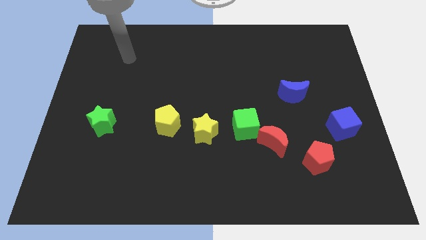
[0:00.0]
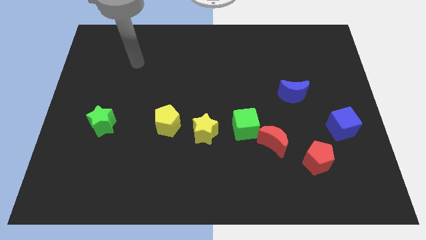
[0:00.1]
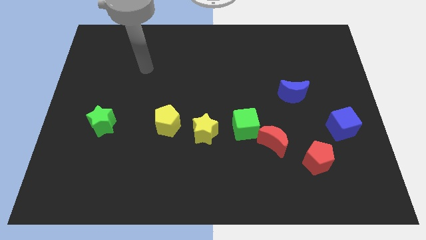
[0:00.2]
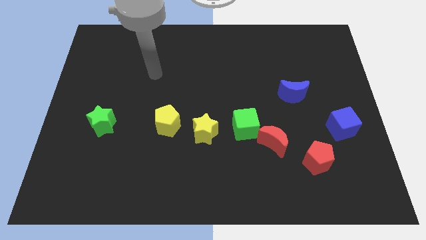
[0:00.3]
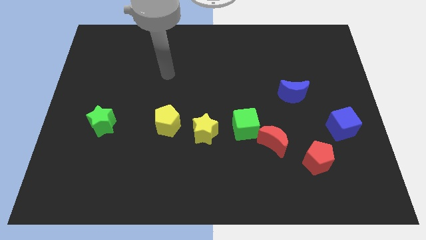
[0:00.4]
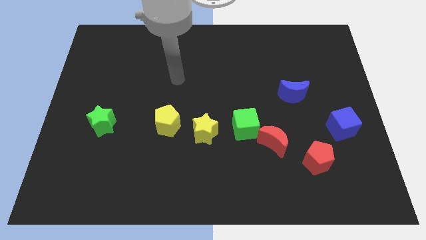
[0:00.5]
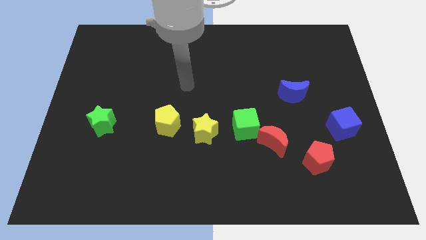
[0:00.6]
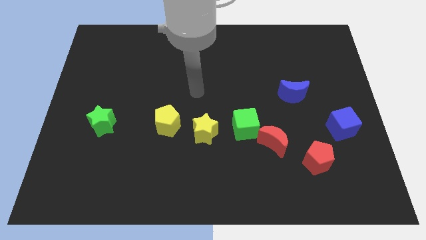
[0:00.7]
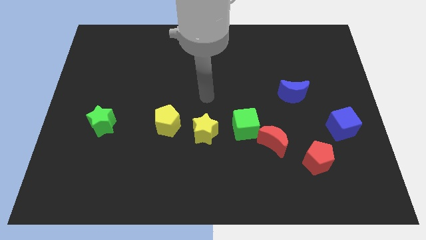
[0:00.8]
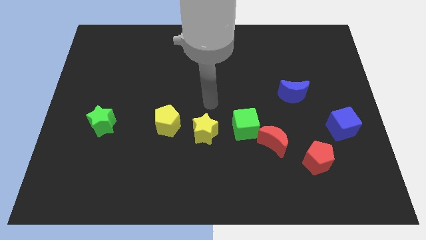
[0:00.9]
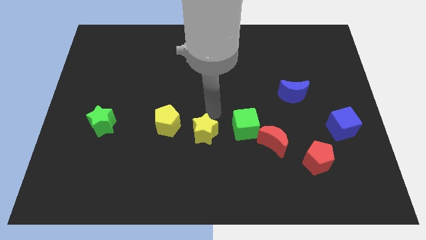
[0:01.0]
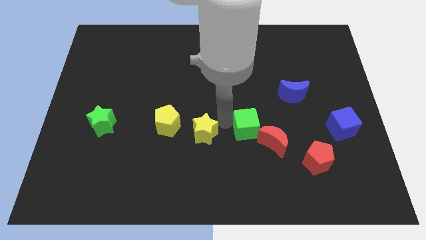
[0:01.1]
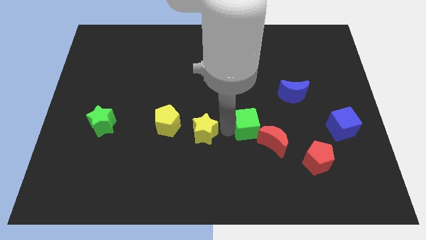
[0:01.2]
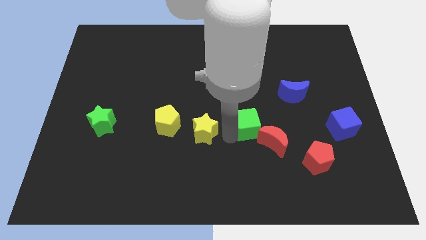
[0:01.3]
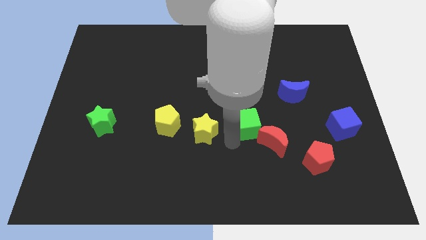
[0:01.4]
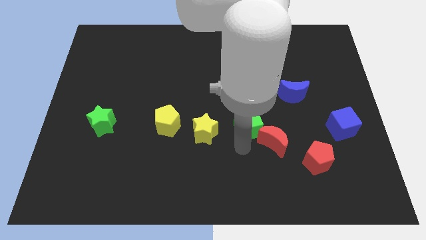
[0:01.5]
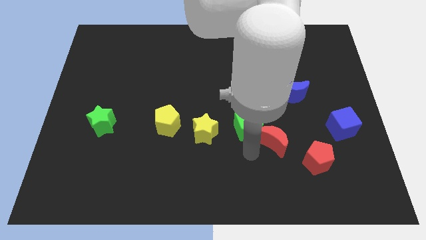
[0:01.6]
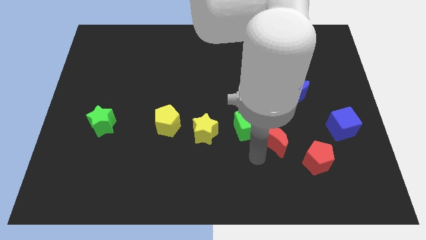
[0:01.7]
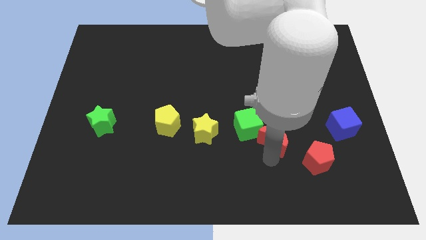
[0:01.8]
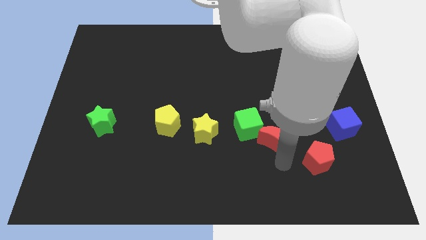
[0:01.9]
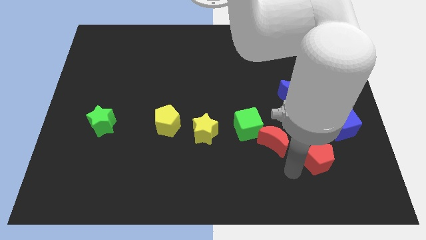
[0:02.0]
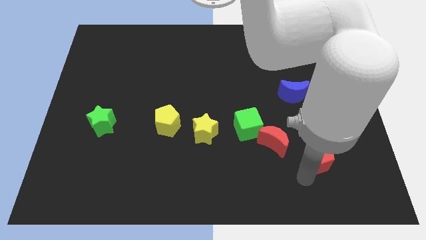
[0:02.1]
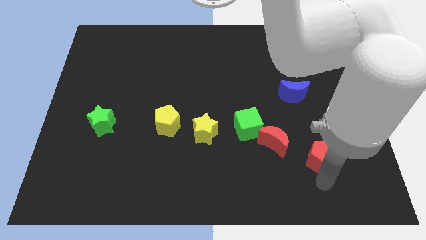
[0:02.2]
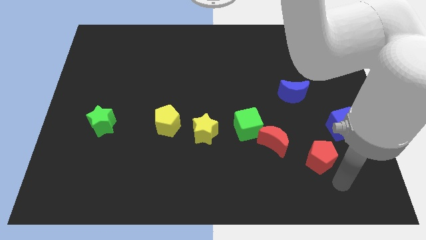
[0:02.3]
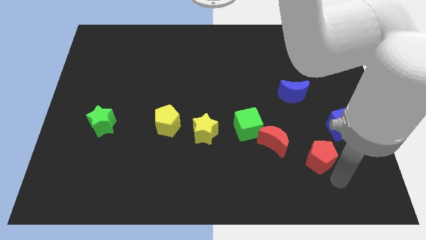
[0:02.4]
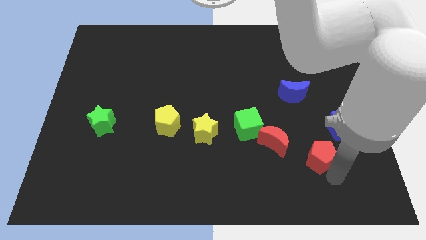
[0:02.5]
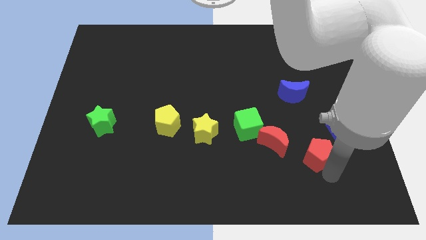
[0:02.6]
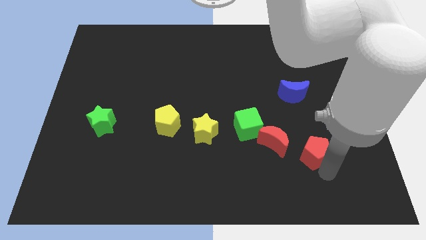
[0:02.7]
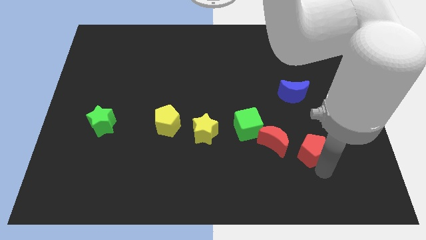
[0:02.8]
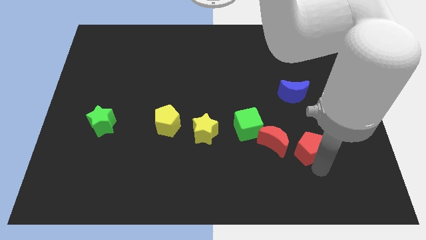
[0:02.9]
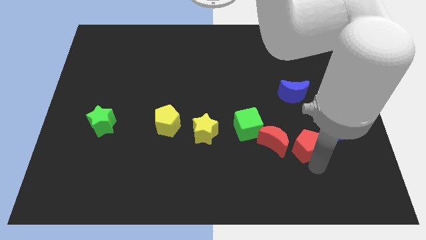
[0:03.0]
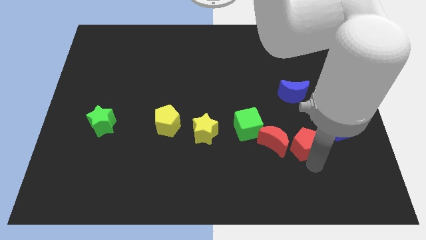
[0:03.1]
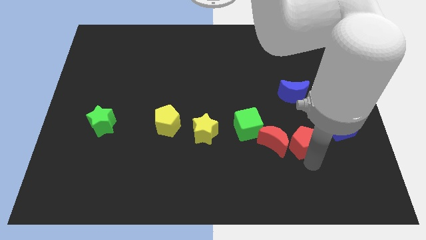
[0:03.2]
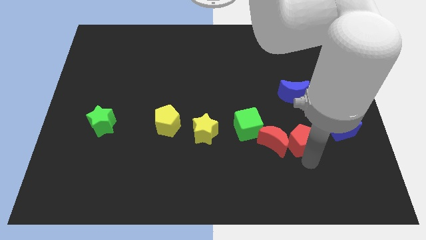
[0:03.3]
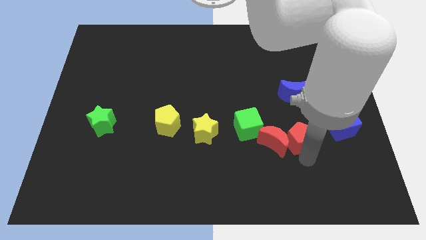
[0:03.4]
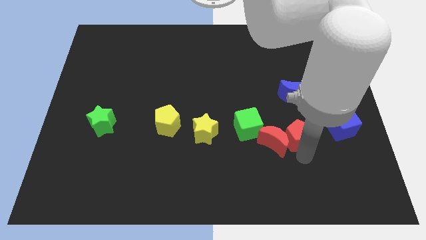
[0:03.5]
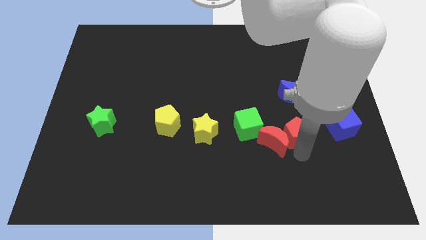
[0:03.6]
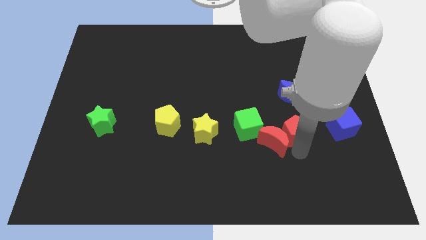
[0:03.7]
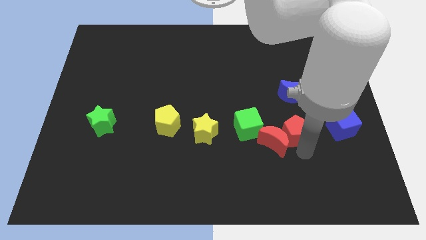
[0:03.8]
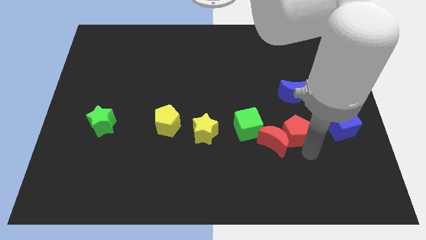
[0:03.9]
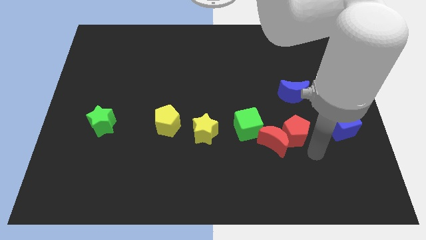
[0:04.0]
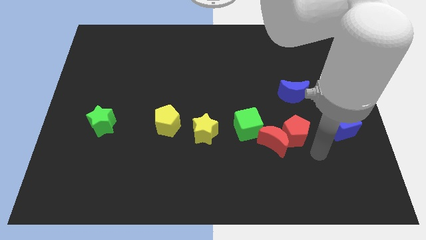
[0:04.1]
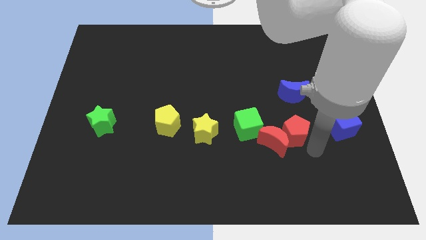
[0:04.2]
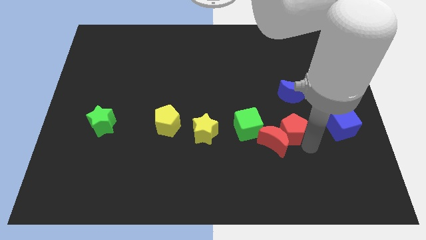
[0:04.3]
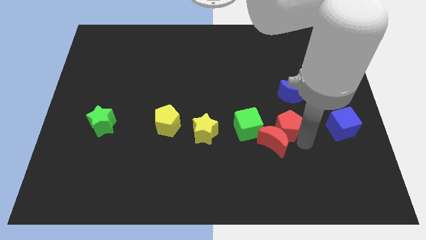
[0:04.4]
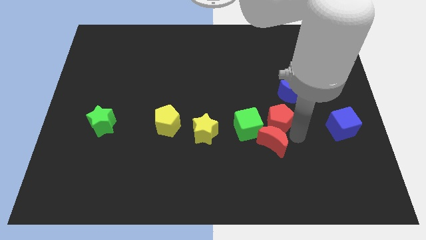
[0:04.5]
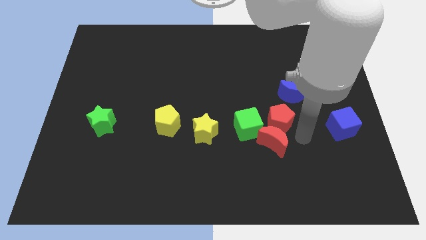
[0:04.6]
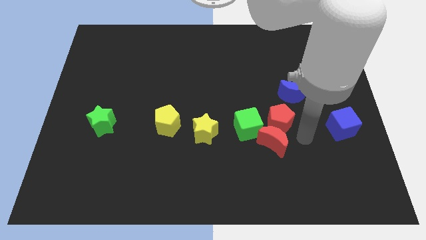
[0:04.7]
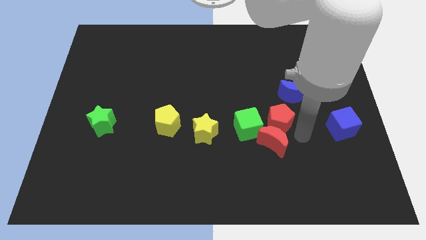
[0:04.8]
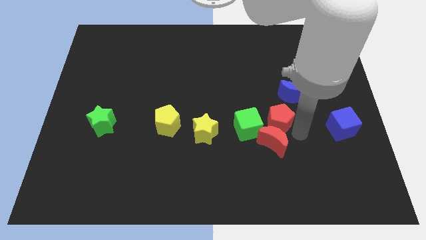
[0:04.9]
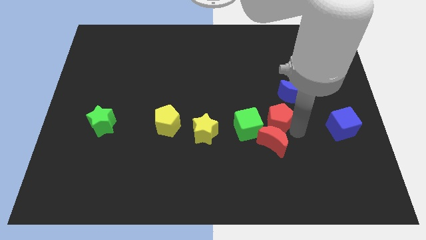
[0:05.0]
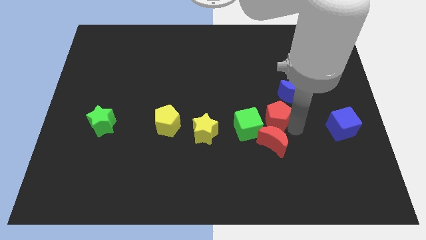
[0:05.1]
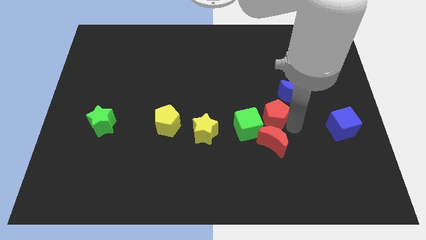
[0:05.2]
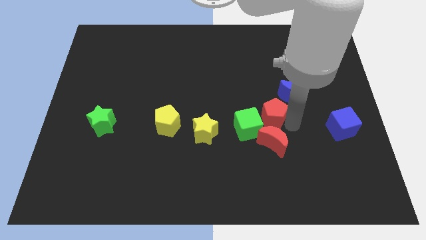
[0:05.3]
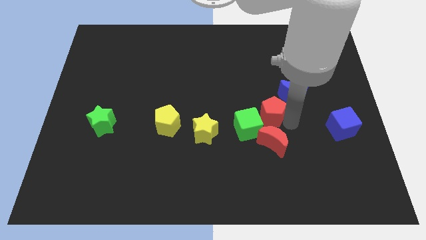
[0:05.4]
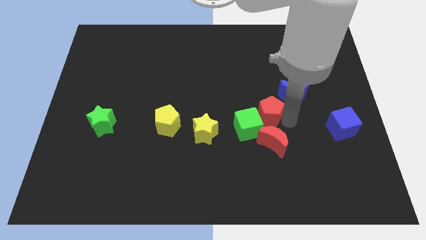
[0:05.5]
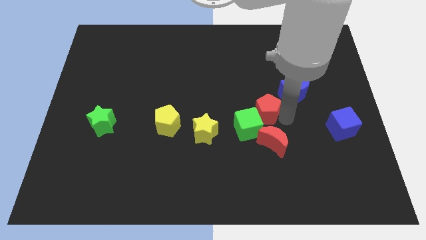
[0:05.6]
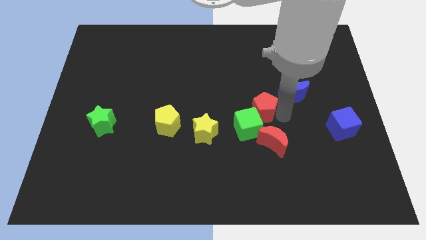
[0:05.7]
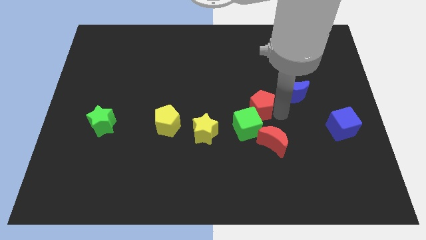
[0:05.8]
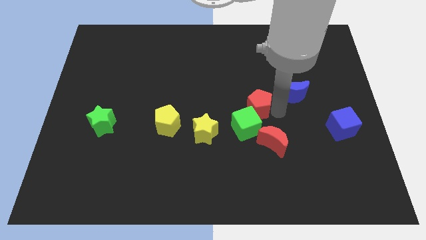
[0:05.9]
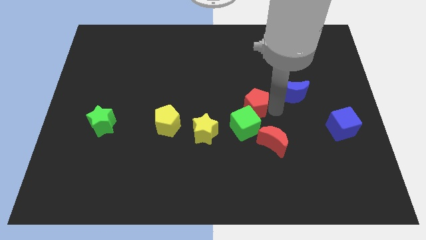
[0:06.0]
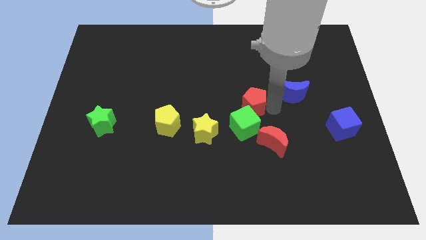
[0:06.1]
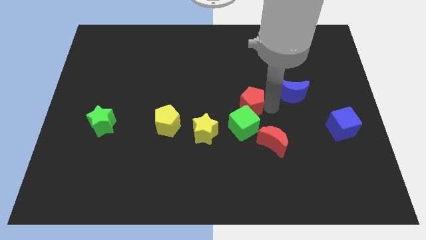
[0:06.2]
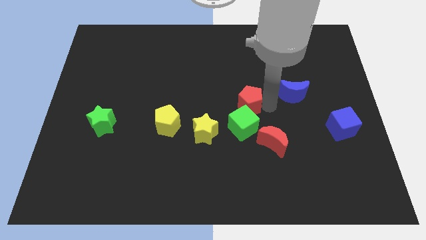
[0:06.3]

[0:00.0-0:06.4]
move the red pentagon upwards and then left

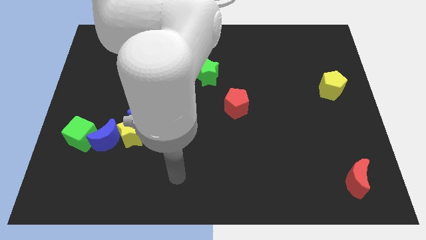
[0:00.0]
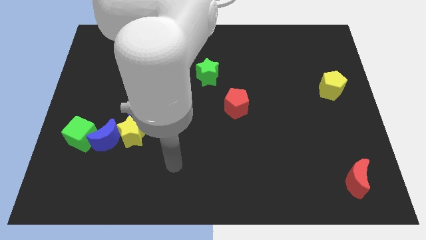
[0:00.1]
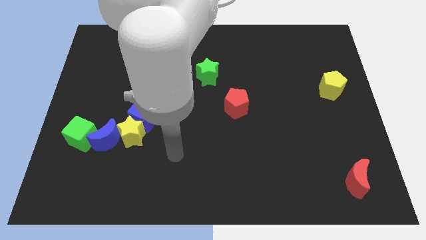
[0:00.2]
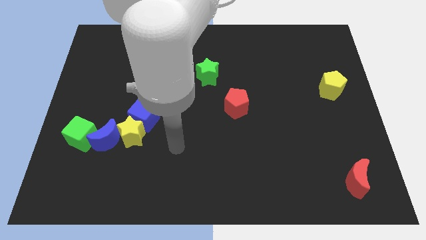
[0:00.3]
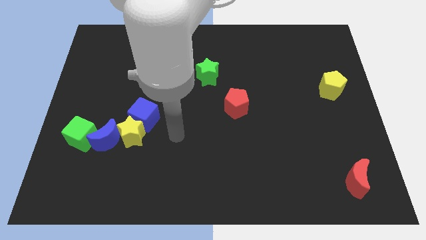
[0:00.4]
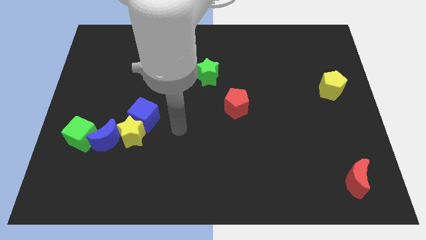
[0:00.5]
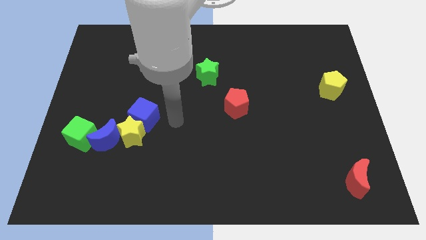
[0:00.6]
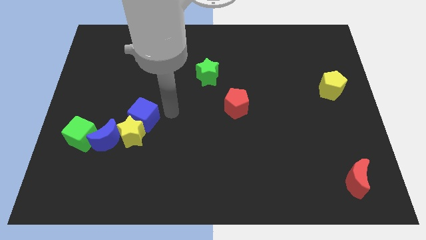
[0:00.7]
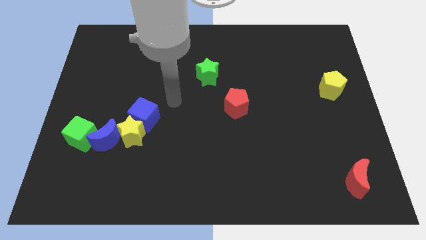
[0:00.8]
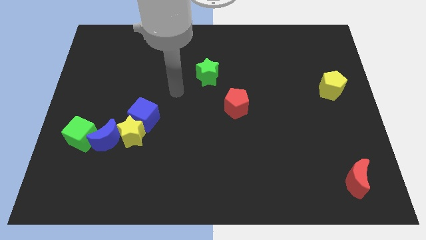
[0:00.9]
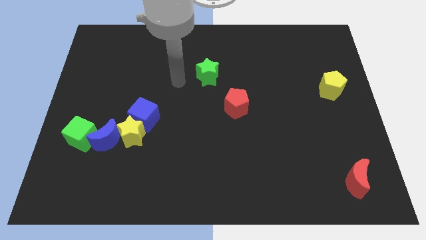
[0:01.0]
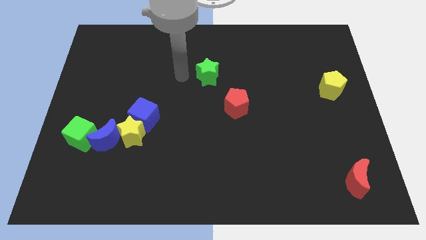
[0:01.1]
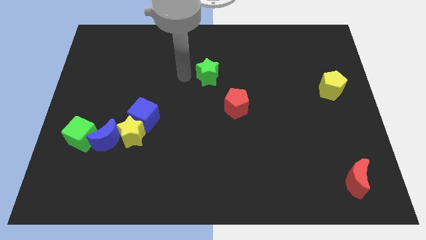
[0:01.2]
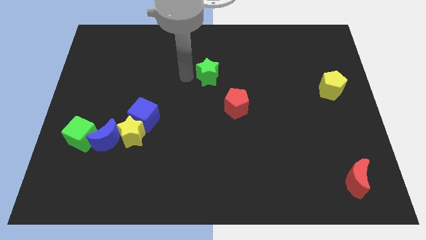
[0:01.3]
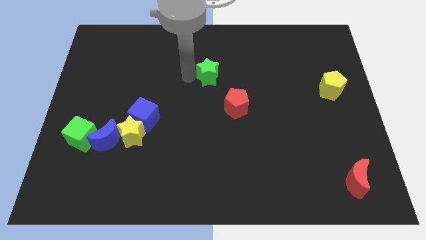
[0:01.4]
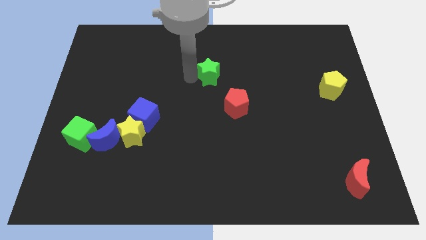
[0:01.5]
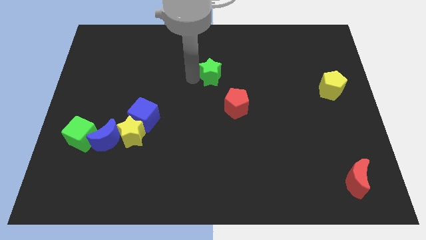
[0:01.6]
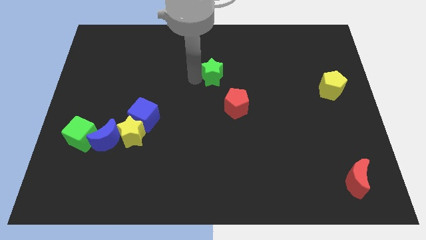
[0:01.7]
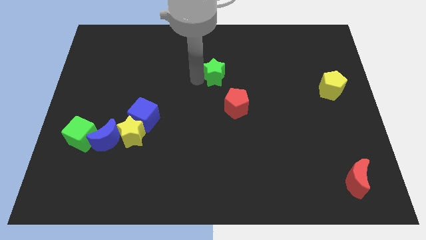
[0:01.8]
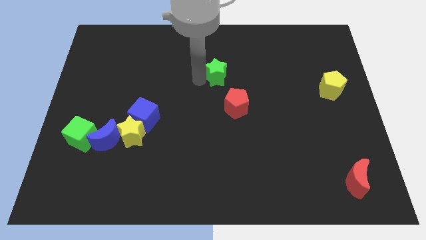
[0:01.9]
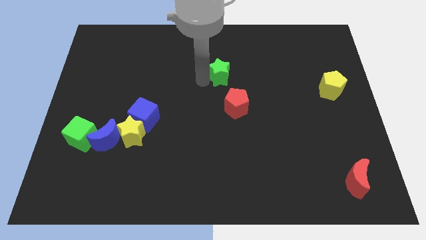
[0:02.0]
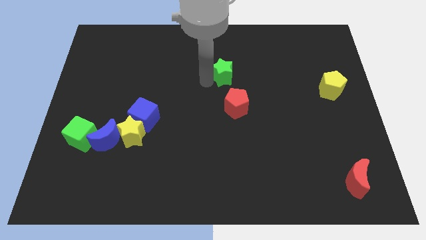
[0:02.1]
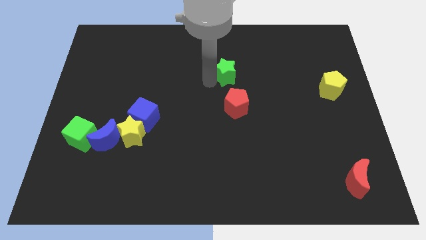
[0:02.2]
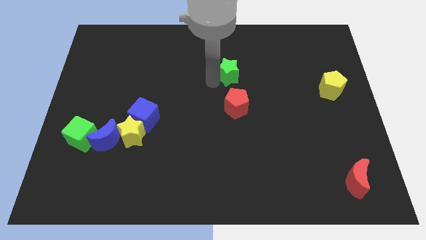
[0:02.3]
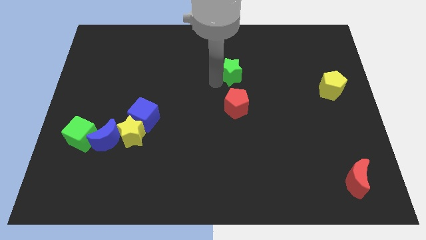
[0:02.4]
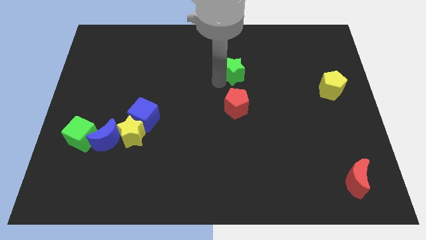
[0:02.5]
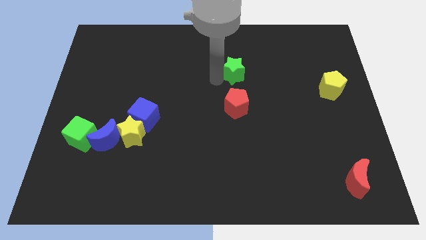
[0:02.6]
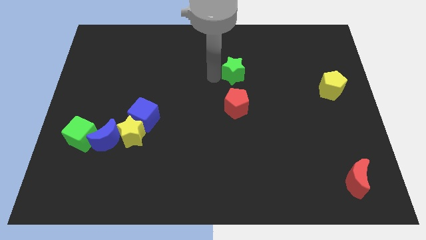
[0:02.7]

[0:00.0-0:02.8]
slightly move the green star right
